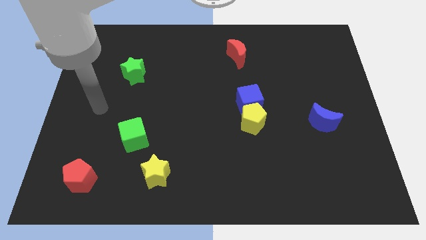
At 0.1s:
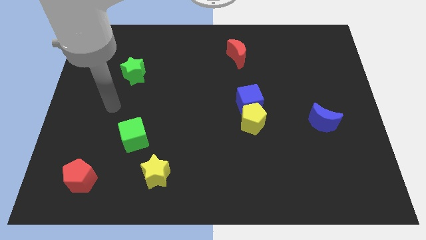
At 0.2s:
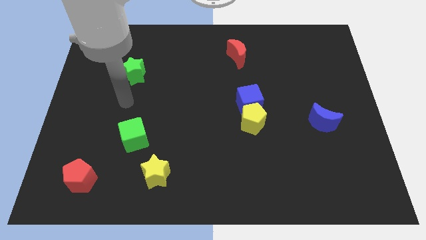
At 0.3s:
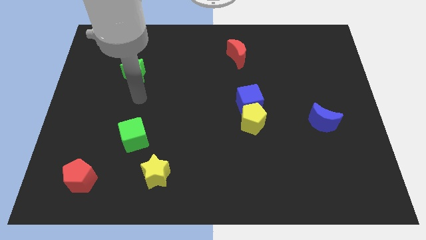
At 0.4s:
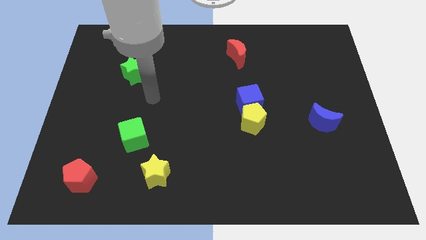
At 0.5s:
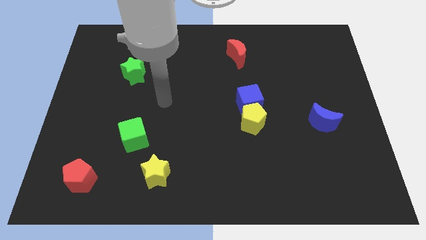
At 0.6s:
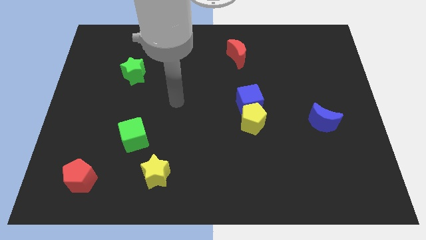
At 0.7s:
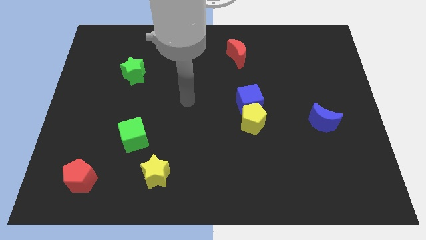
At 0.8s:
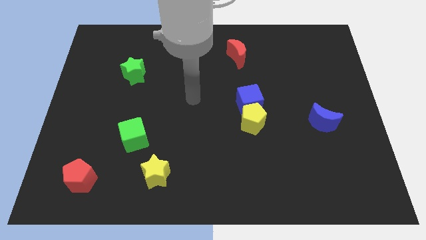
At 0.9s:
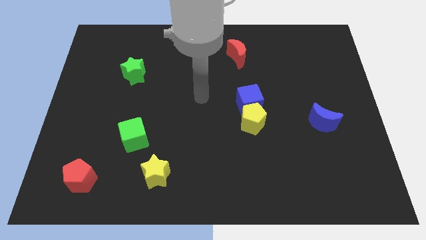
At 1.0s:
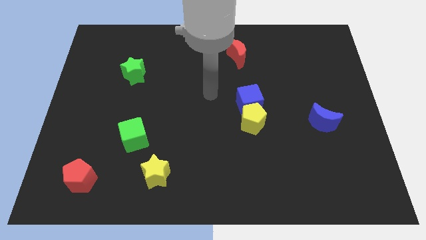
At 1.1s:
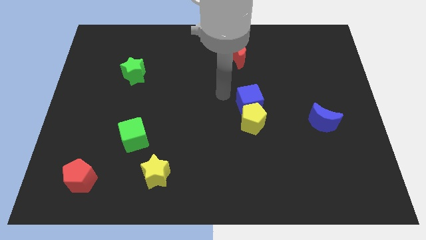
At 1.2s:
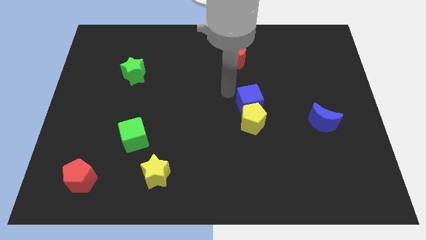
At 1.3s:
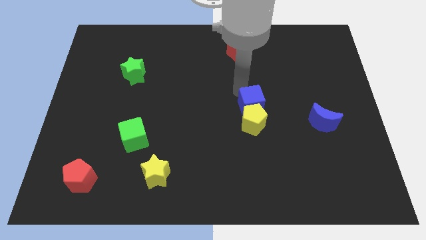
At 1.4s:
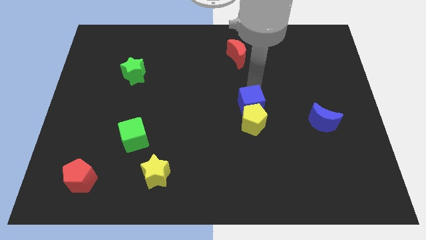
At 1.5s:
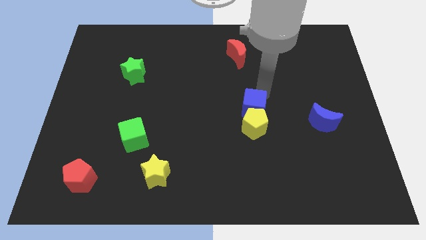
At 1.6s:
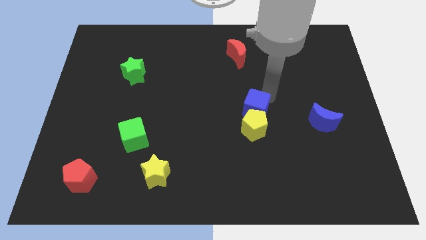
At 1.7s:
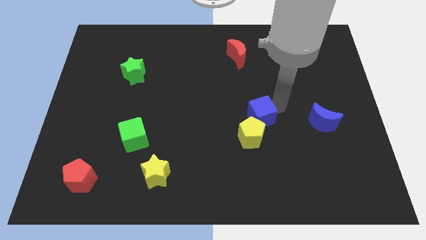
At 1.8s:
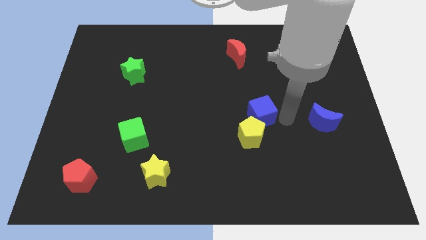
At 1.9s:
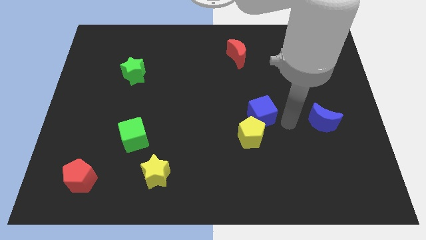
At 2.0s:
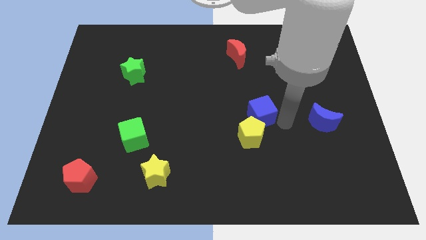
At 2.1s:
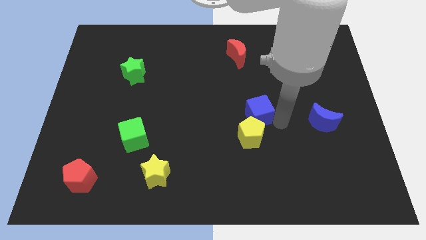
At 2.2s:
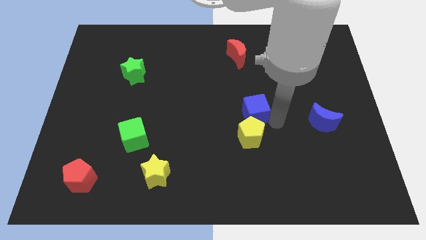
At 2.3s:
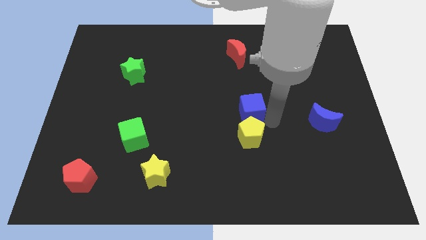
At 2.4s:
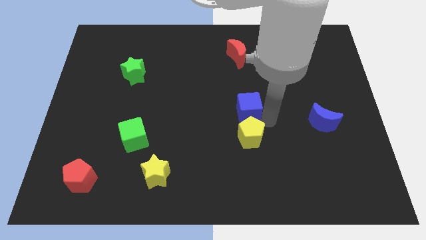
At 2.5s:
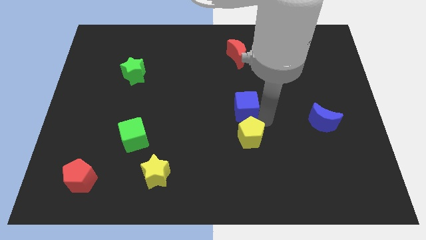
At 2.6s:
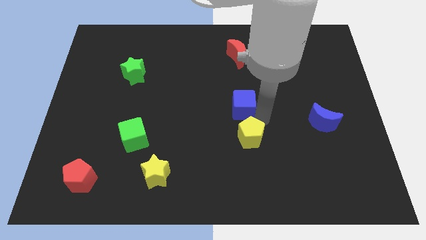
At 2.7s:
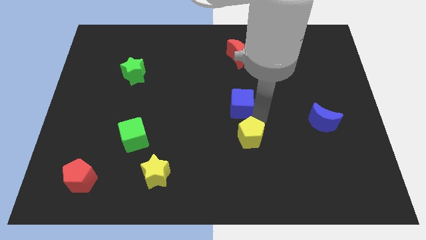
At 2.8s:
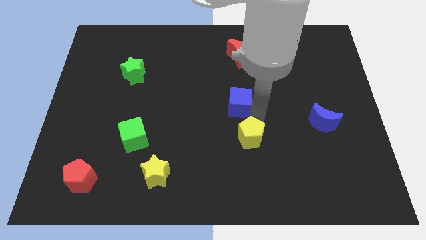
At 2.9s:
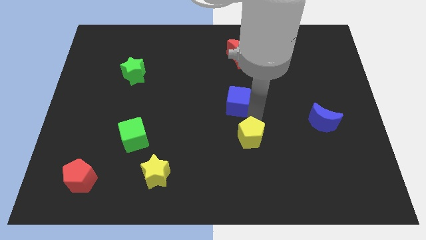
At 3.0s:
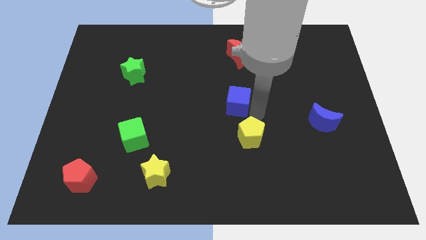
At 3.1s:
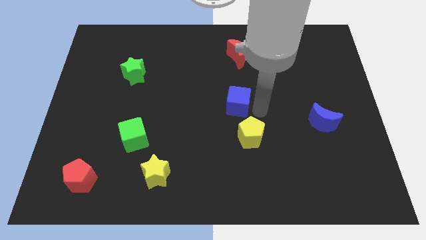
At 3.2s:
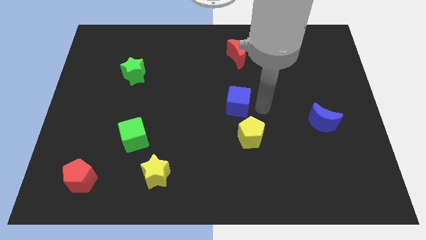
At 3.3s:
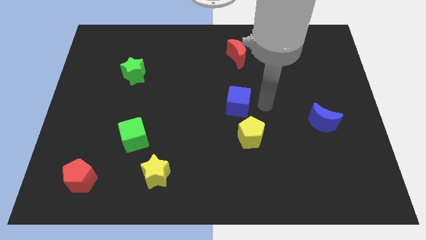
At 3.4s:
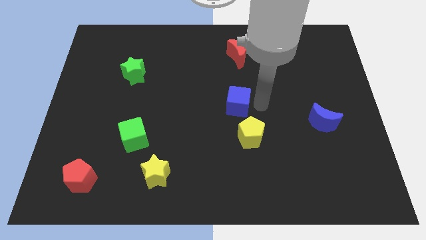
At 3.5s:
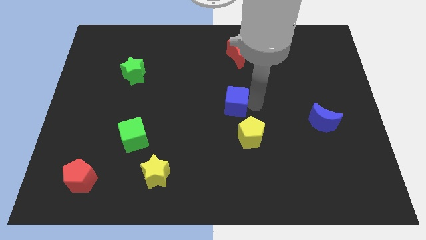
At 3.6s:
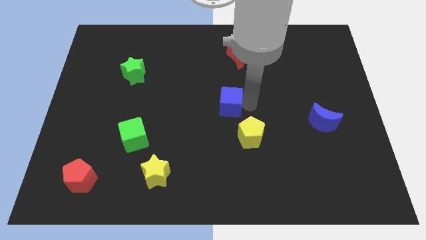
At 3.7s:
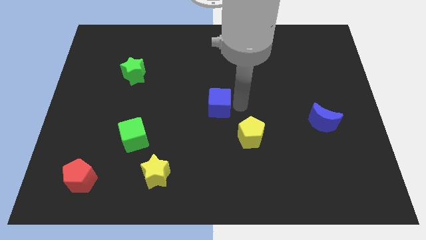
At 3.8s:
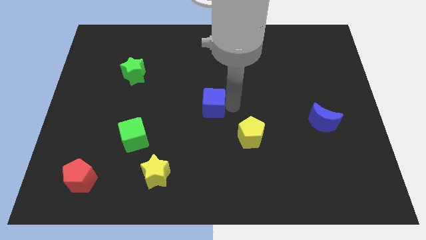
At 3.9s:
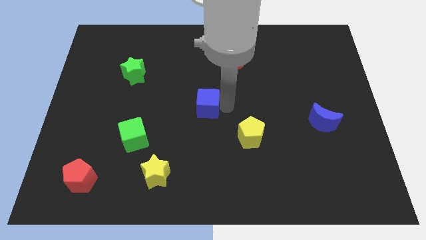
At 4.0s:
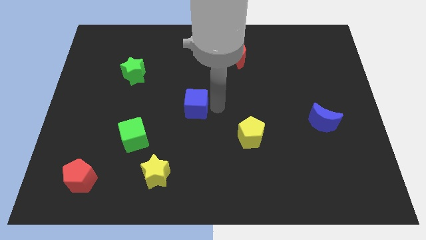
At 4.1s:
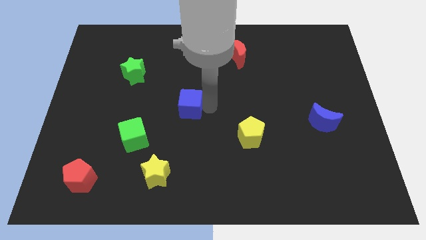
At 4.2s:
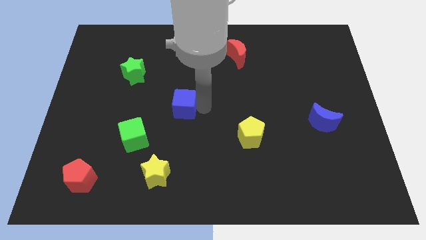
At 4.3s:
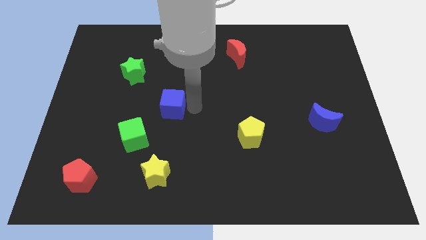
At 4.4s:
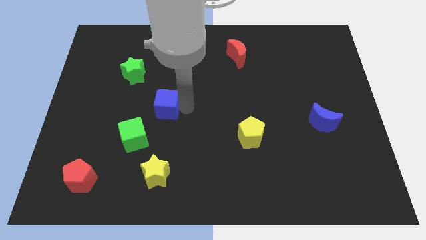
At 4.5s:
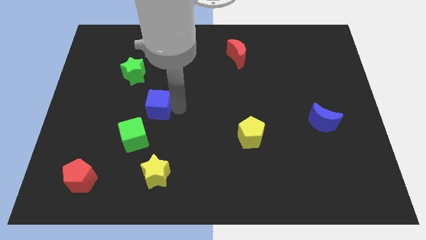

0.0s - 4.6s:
slide the blue cube left

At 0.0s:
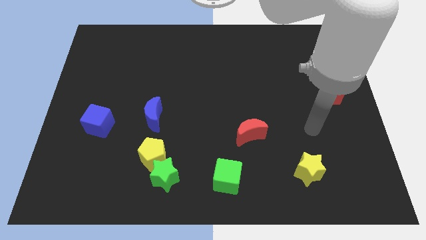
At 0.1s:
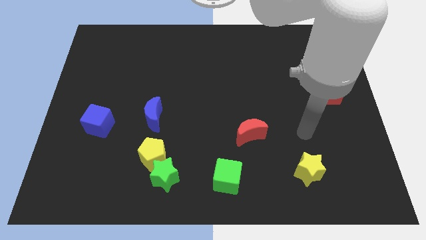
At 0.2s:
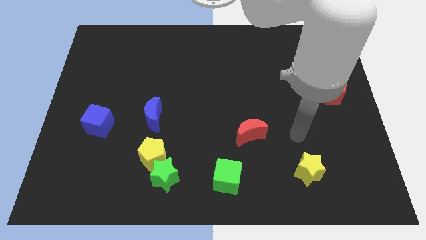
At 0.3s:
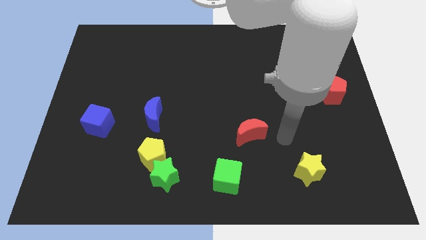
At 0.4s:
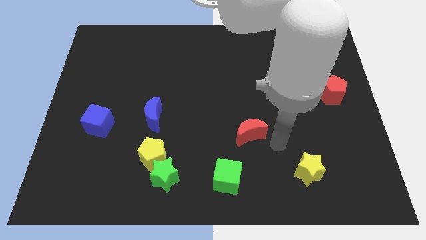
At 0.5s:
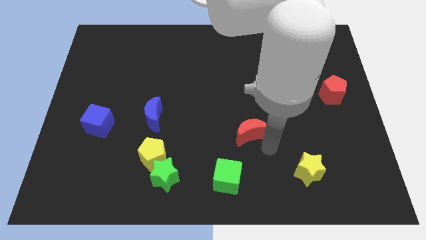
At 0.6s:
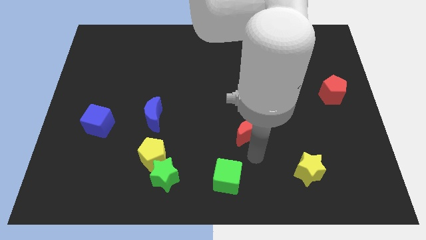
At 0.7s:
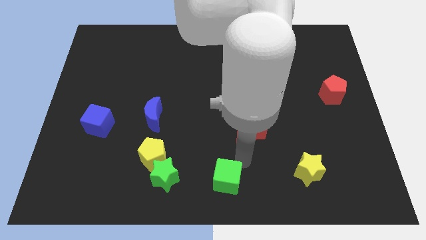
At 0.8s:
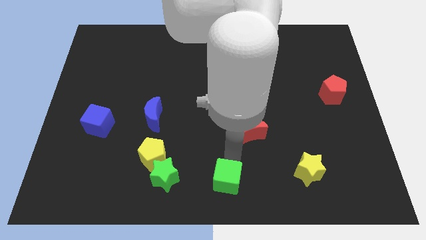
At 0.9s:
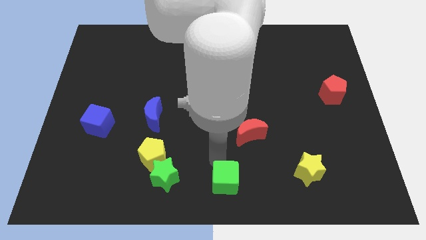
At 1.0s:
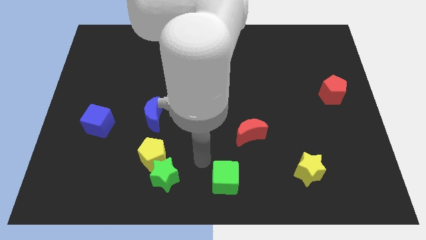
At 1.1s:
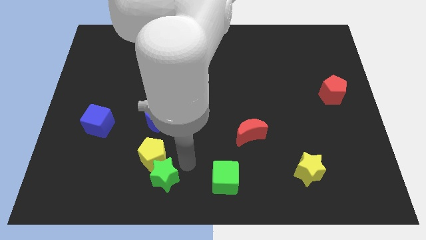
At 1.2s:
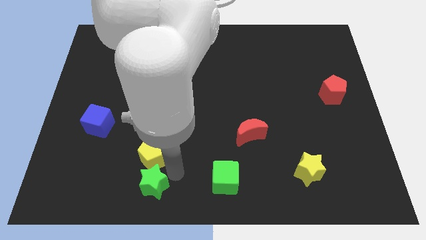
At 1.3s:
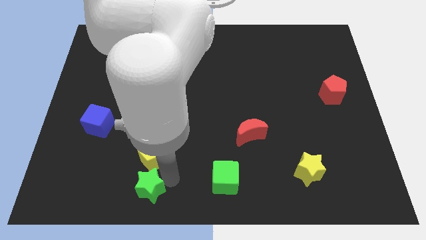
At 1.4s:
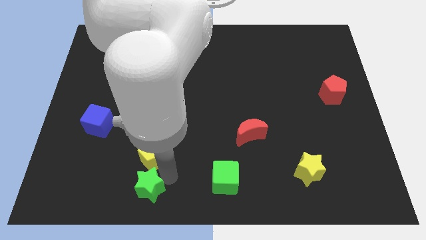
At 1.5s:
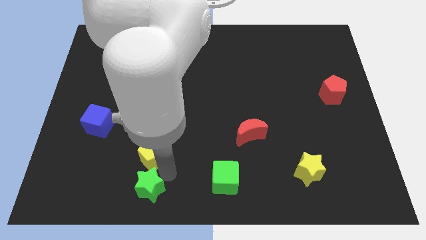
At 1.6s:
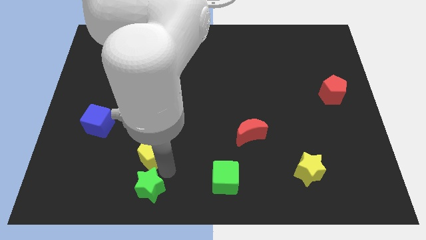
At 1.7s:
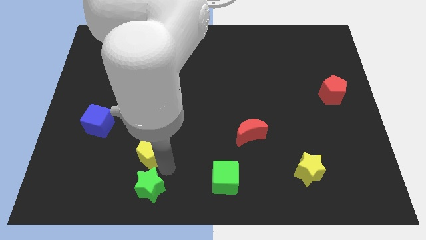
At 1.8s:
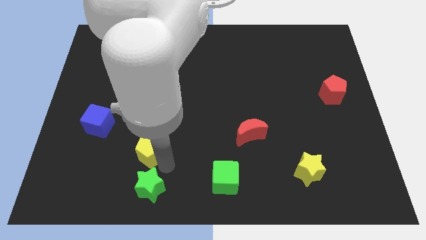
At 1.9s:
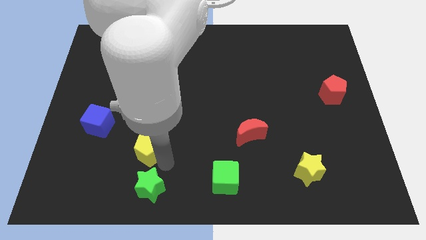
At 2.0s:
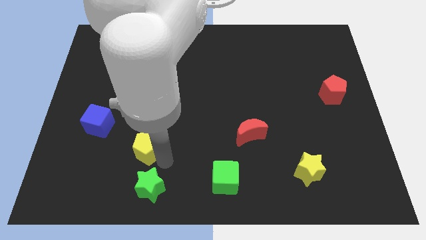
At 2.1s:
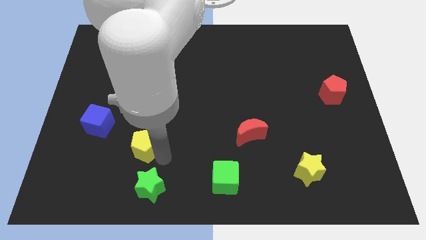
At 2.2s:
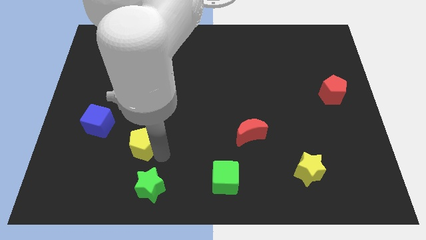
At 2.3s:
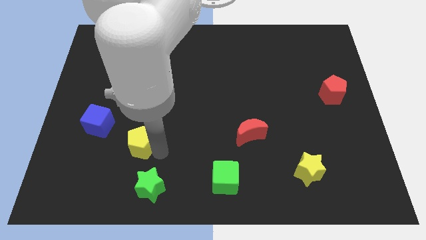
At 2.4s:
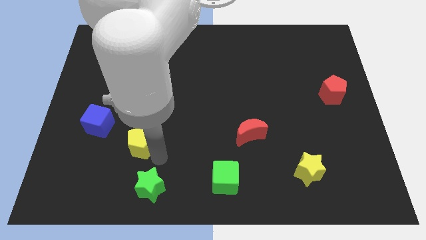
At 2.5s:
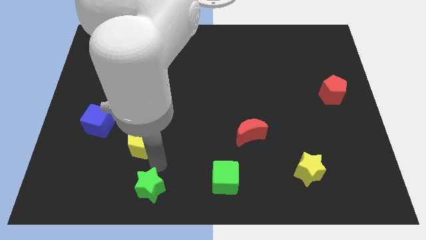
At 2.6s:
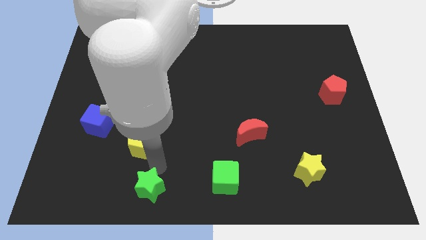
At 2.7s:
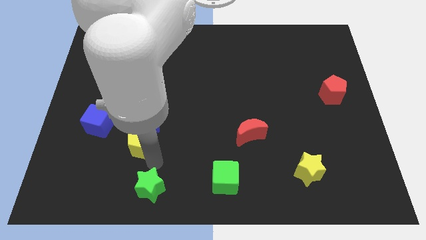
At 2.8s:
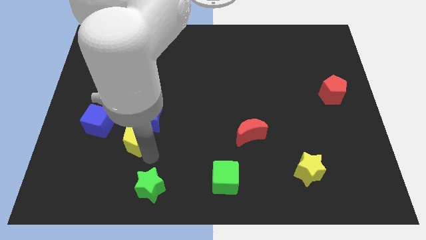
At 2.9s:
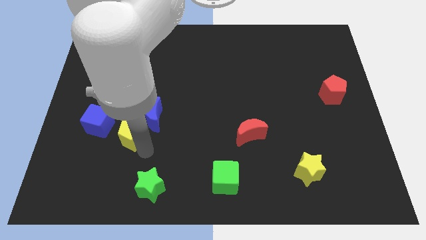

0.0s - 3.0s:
slightly move the yellow pentagon upwards and left

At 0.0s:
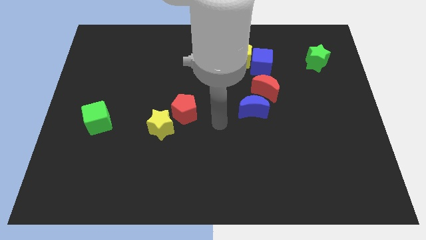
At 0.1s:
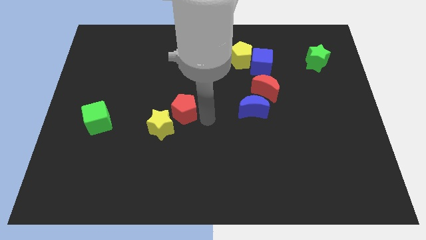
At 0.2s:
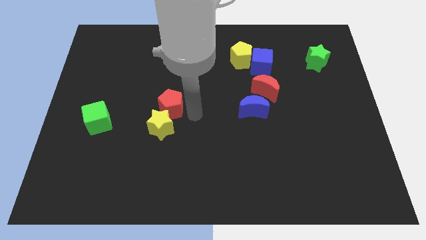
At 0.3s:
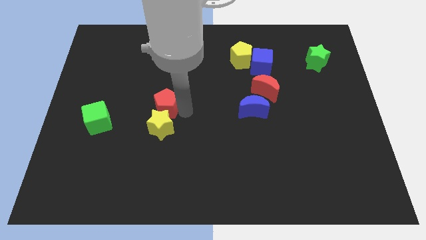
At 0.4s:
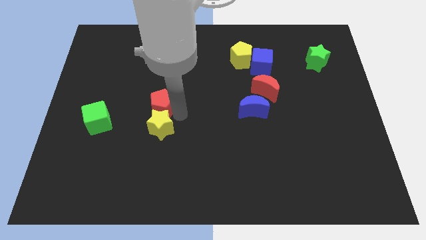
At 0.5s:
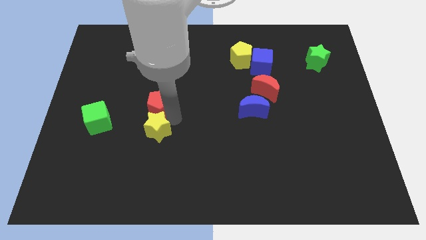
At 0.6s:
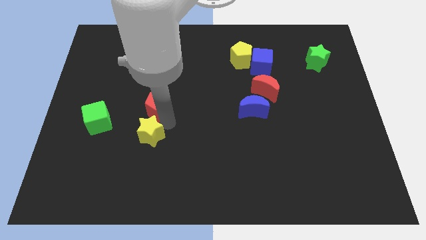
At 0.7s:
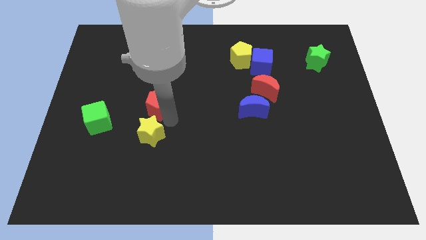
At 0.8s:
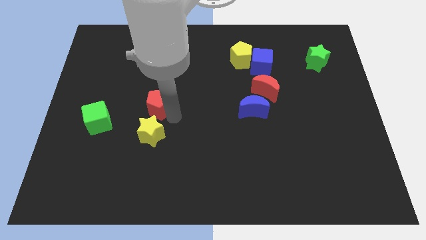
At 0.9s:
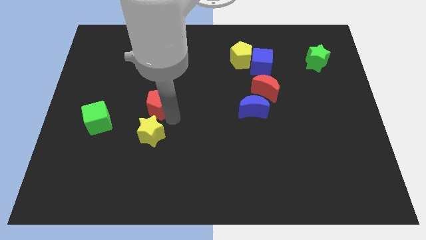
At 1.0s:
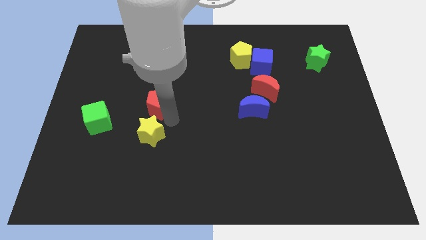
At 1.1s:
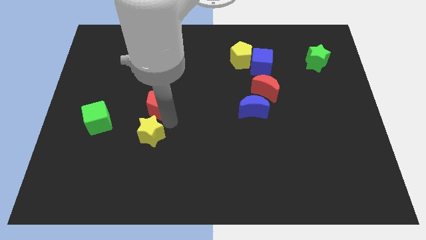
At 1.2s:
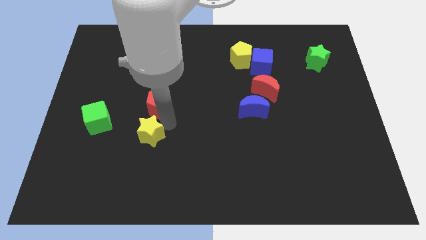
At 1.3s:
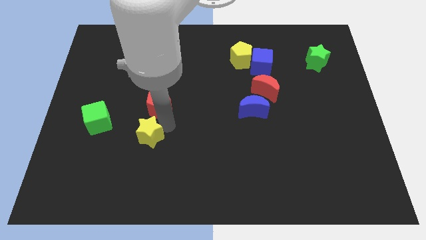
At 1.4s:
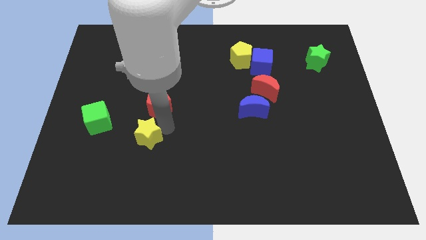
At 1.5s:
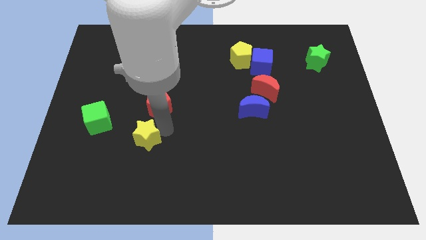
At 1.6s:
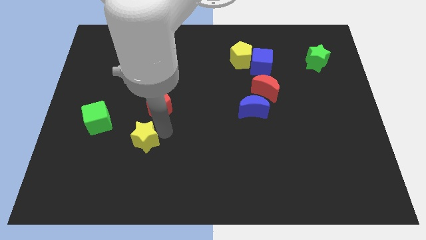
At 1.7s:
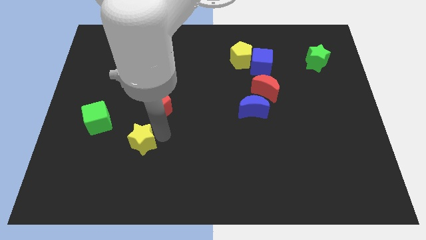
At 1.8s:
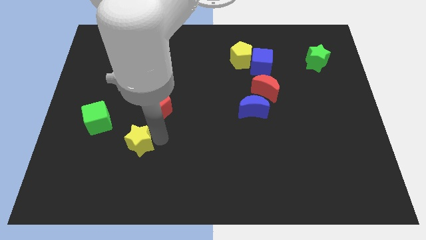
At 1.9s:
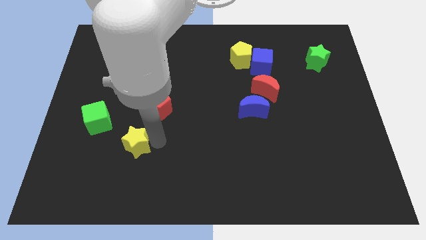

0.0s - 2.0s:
slide the yellow star downwards and left diagonally somewhat
